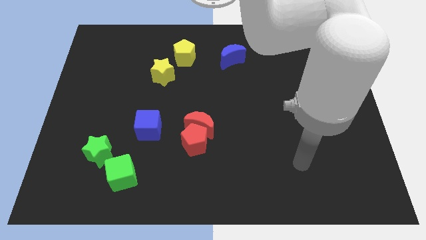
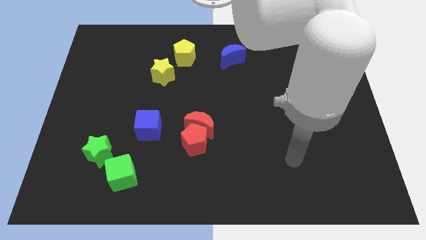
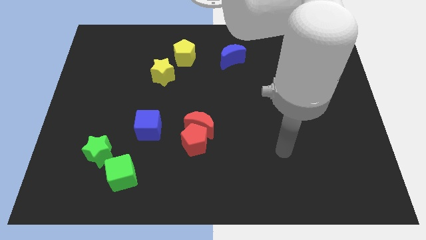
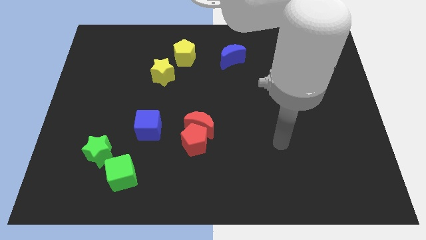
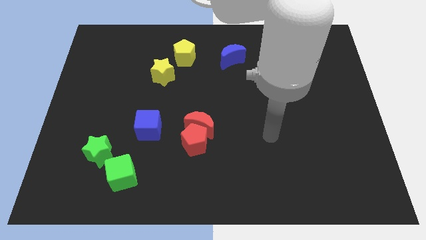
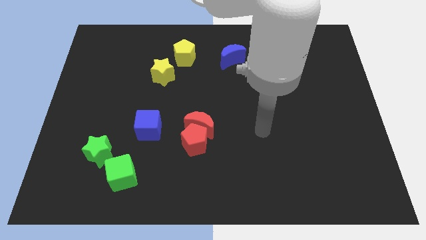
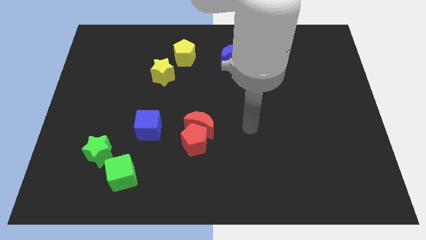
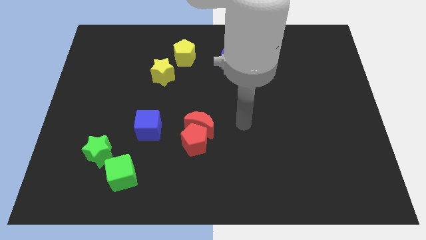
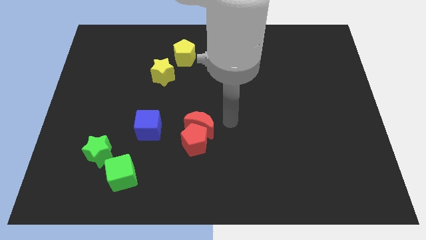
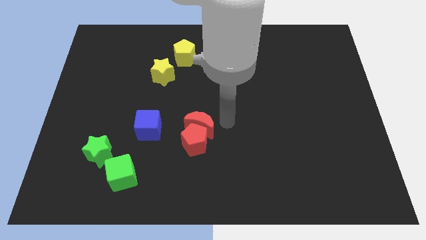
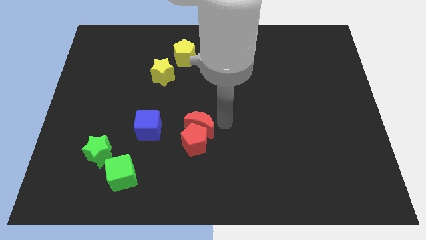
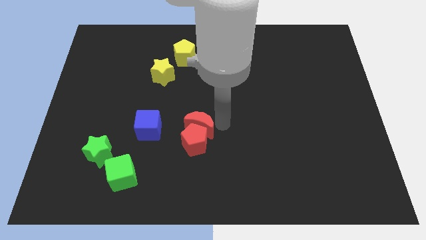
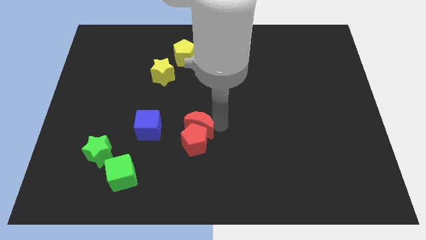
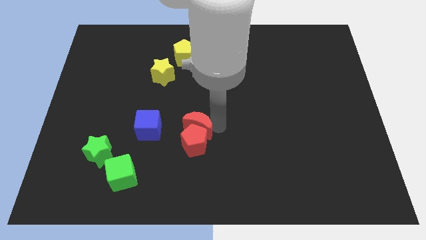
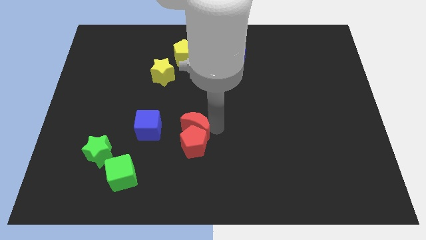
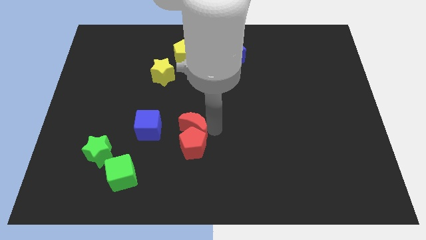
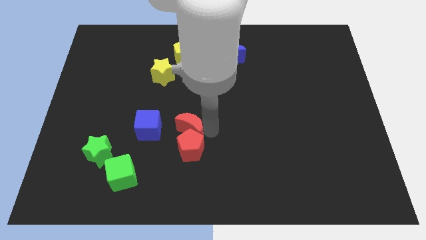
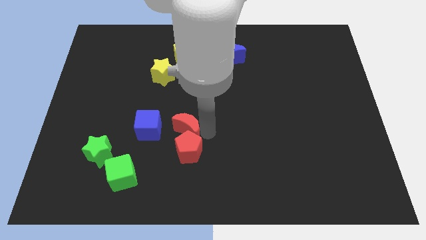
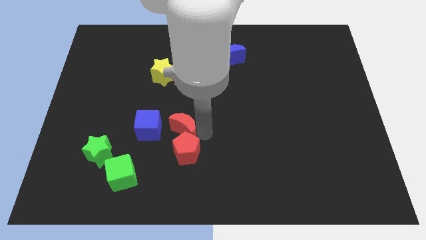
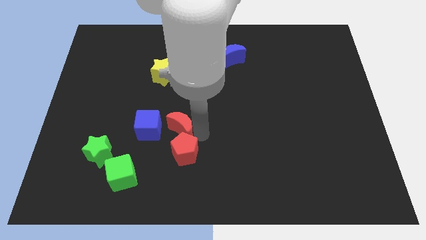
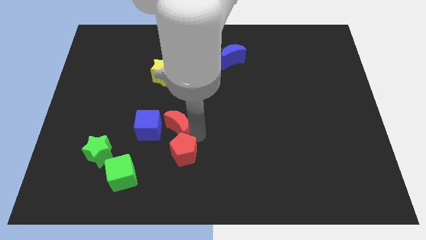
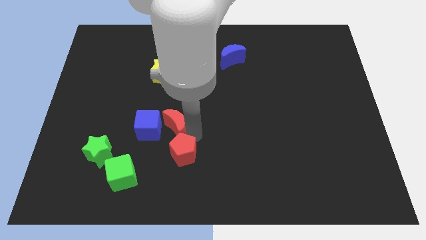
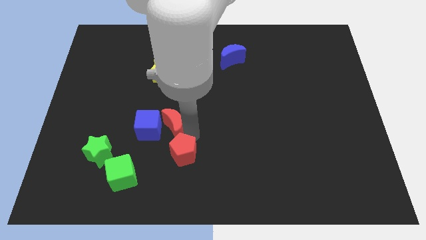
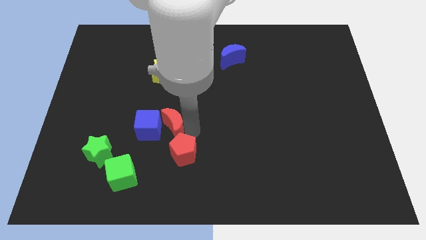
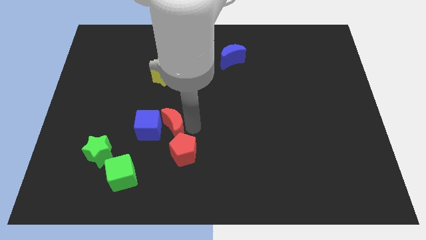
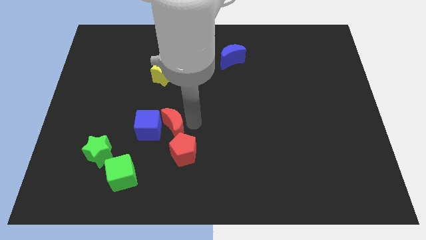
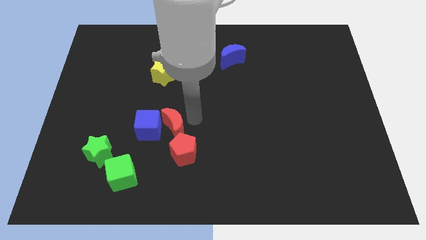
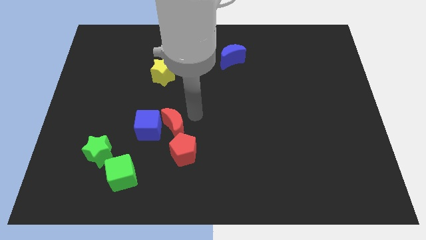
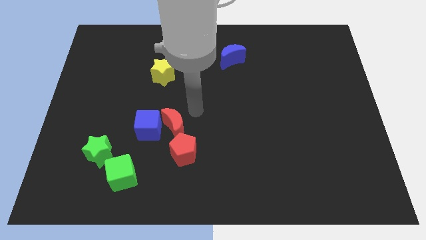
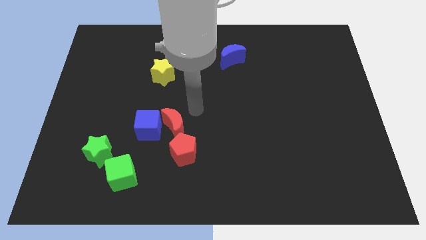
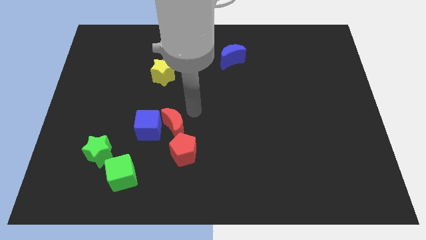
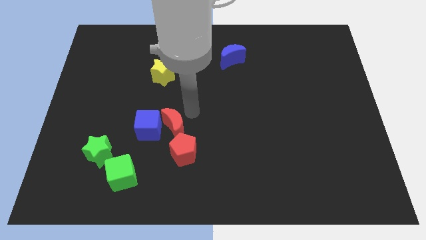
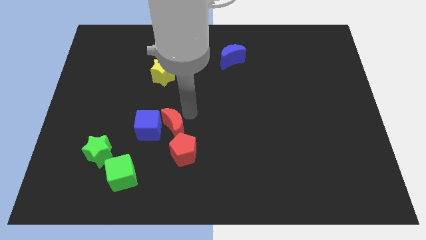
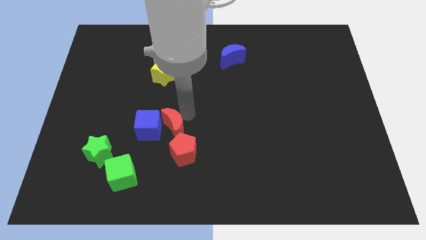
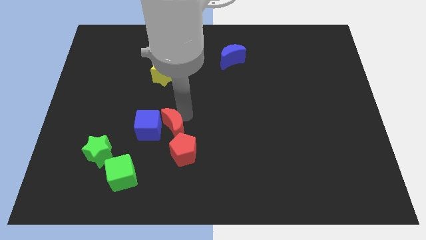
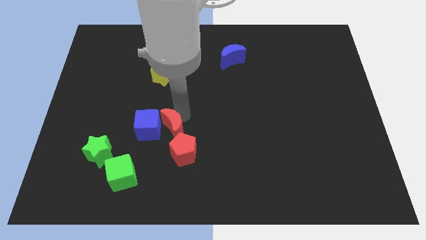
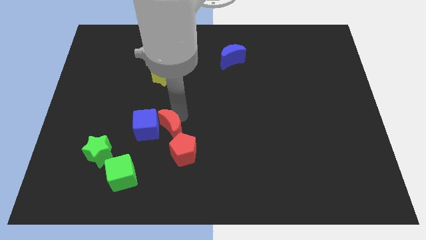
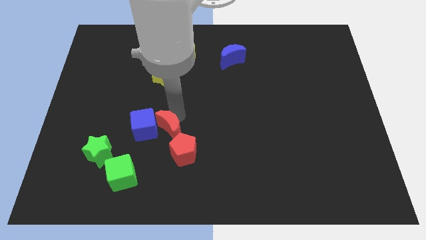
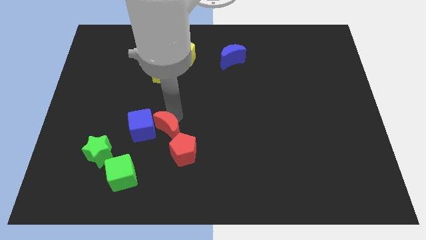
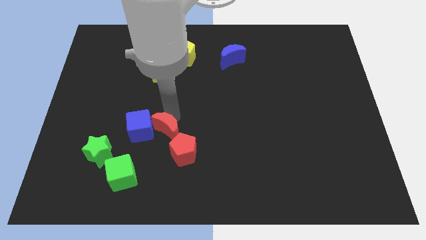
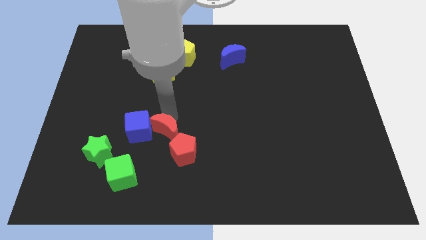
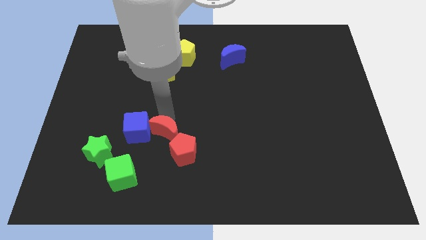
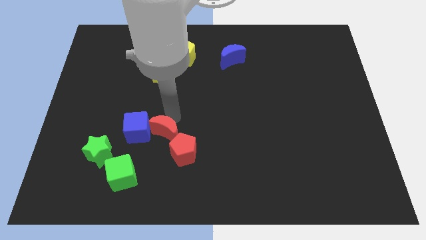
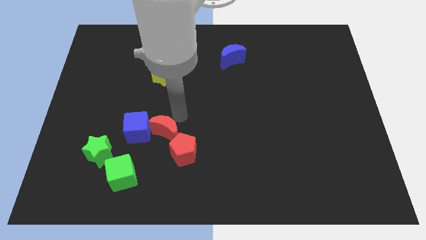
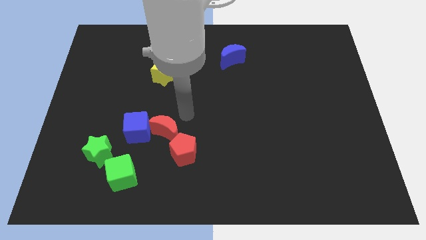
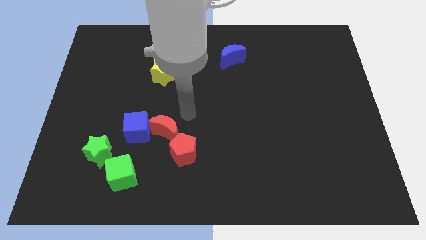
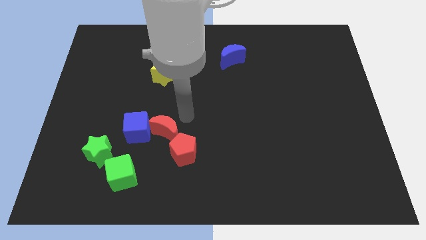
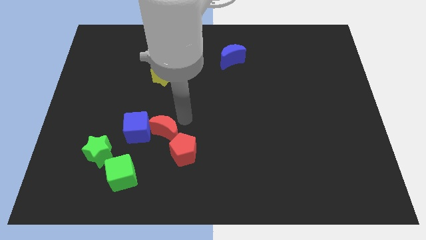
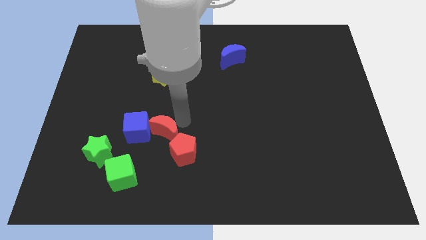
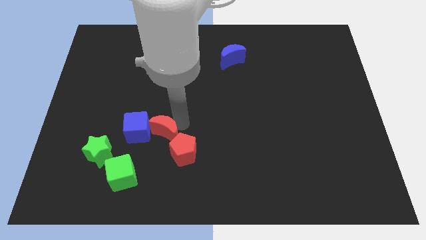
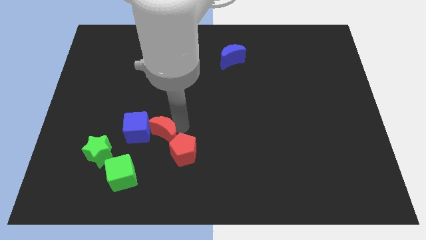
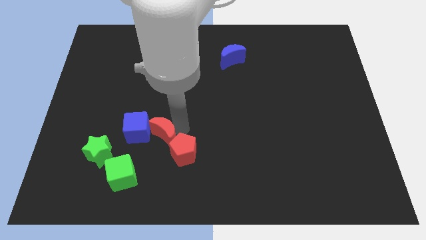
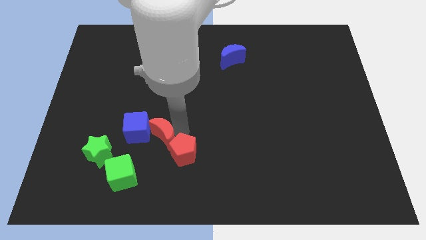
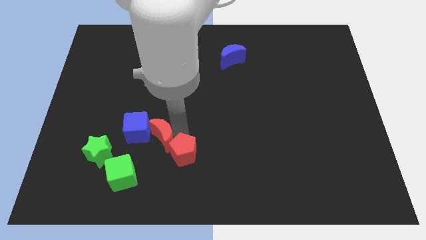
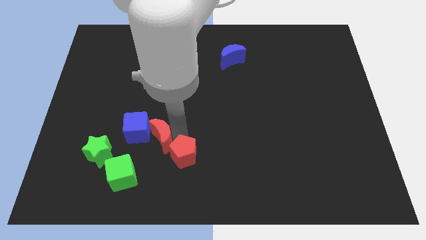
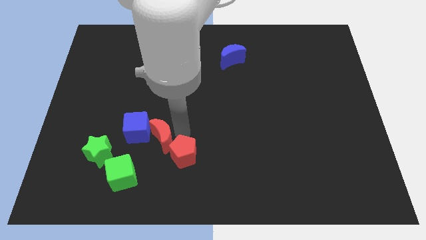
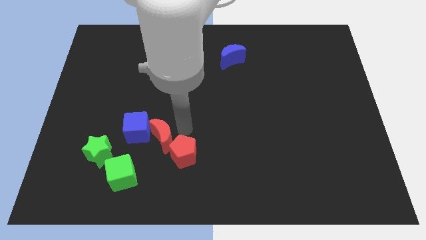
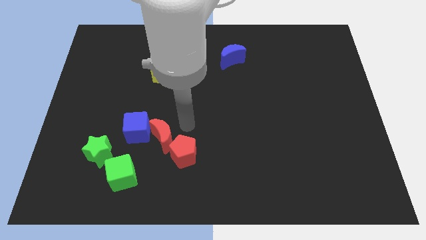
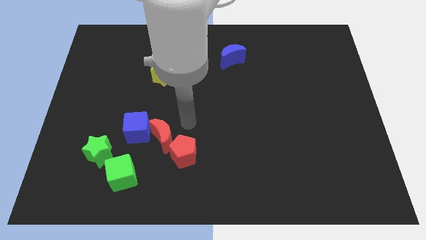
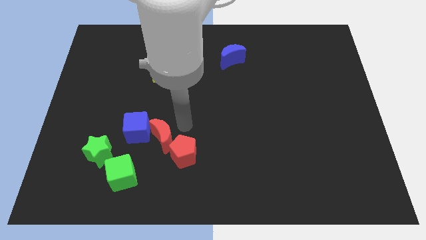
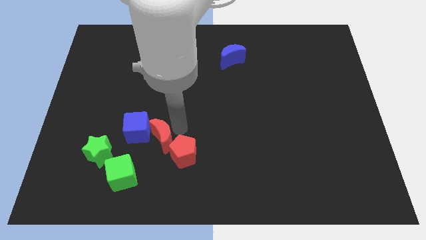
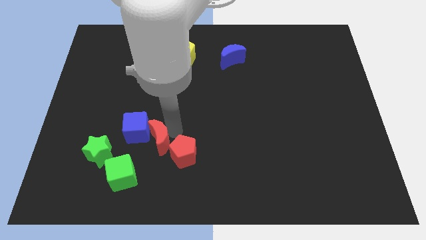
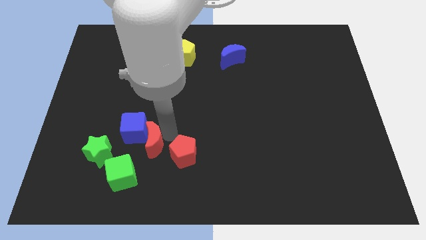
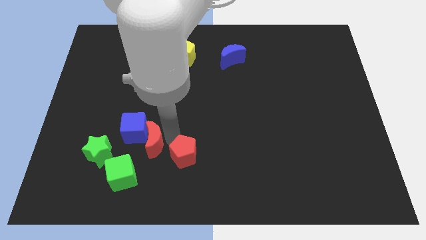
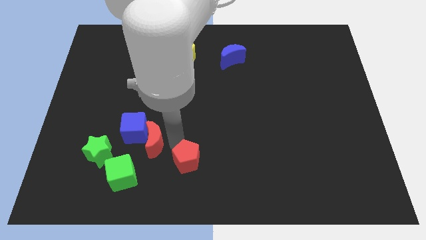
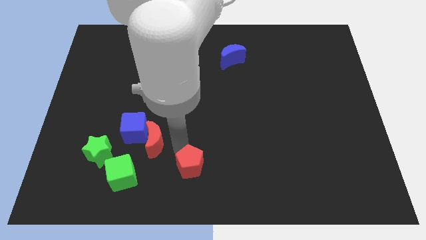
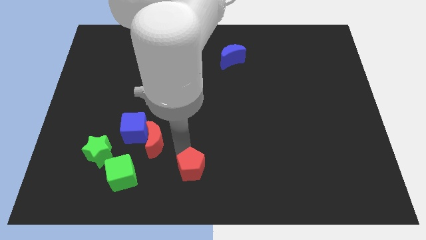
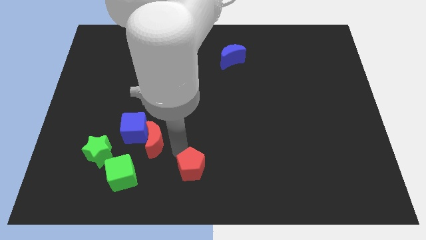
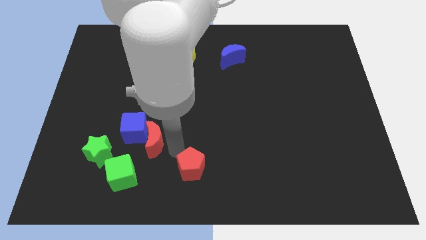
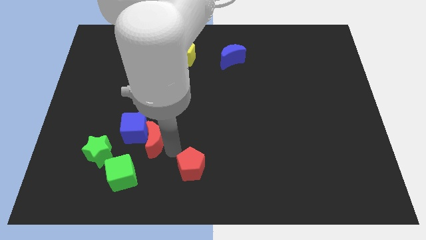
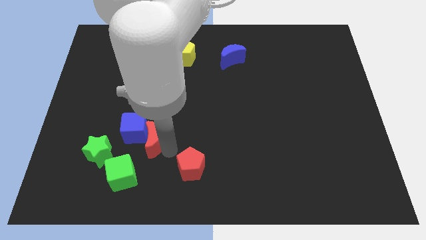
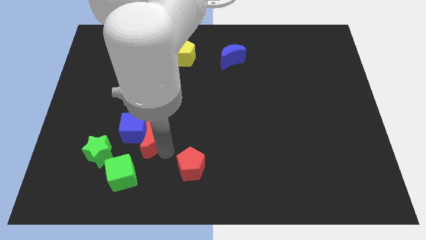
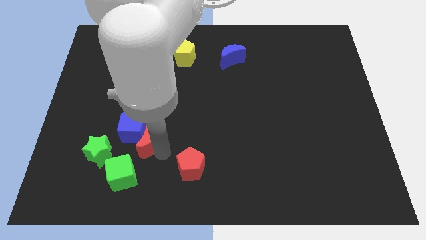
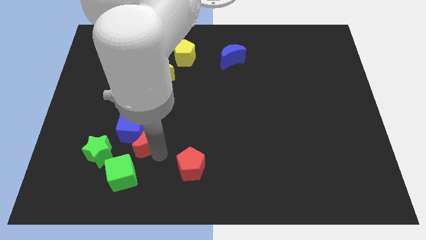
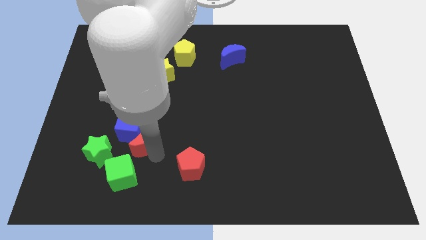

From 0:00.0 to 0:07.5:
push the red moon to the top right side of the green star
